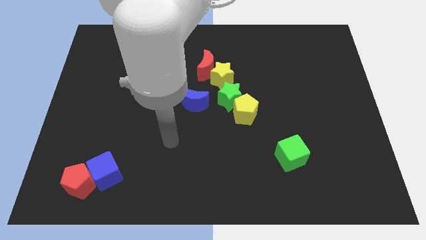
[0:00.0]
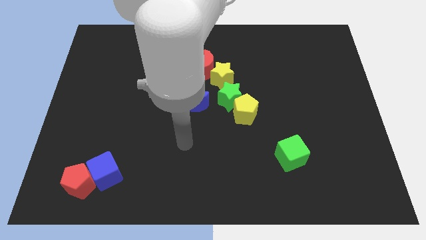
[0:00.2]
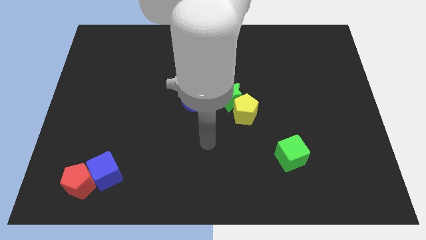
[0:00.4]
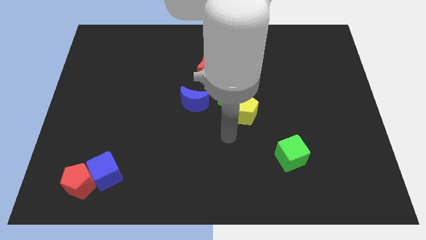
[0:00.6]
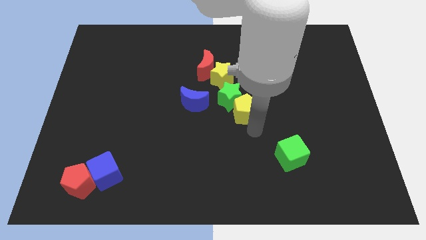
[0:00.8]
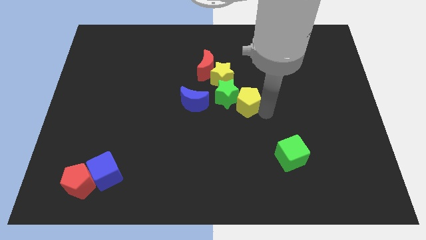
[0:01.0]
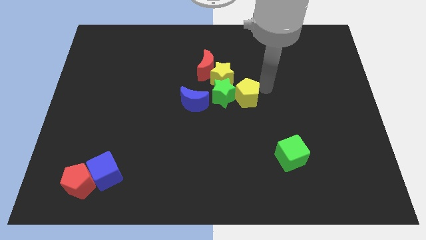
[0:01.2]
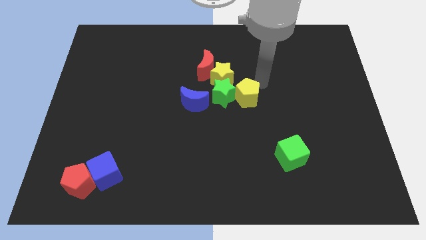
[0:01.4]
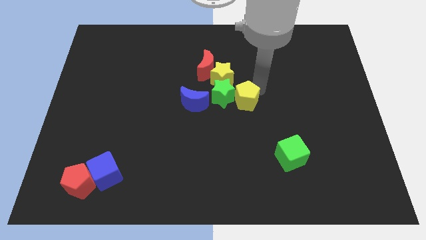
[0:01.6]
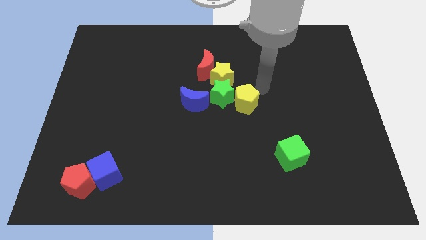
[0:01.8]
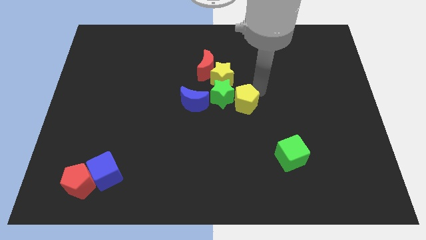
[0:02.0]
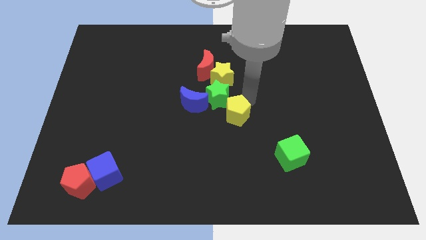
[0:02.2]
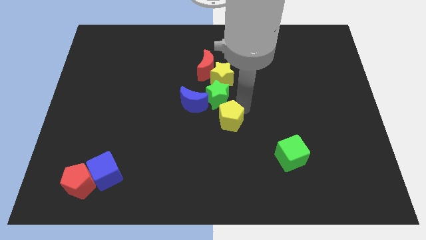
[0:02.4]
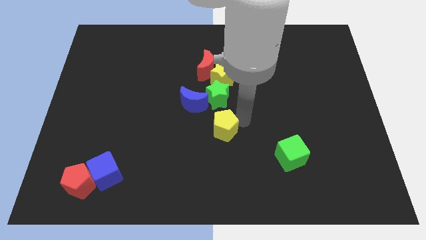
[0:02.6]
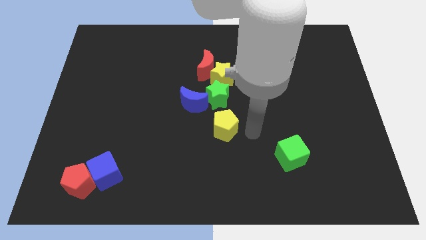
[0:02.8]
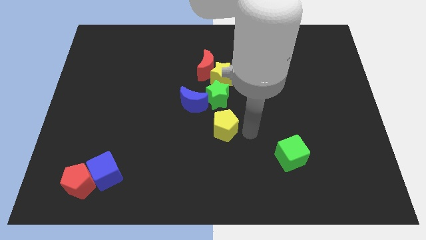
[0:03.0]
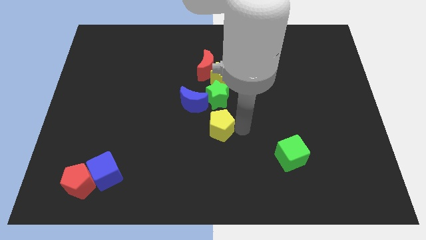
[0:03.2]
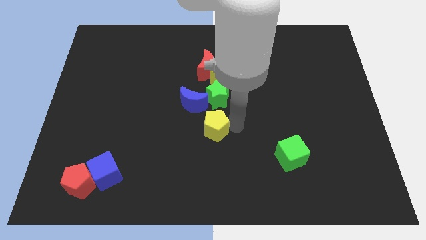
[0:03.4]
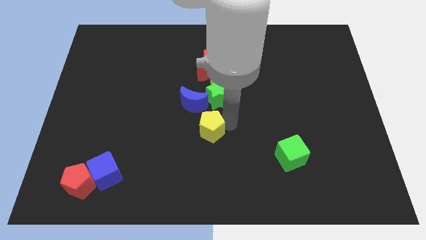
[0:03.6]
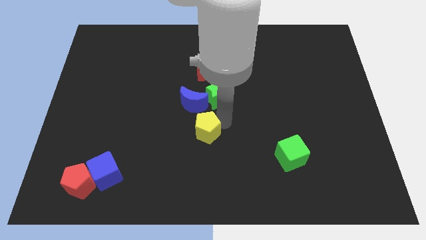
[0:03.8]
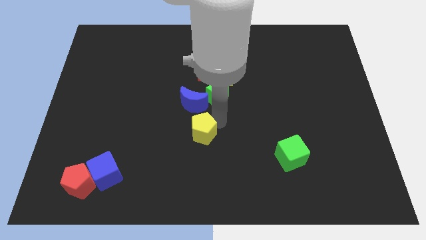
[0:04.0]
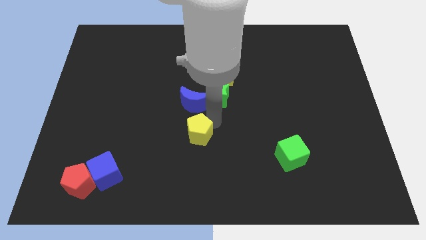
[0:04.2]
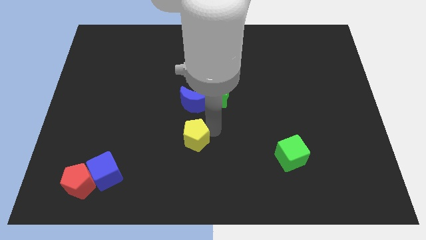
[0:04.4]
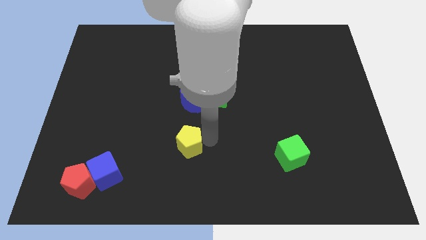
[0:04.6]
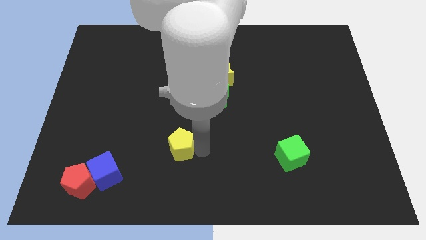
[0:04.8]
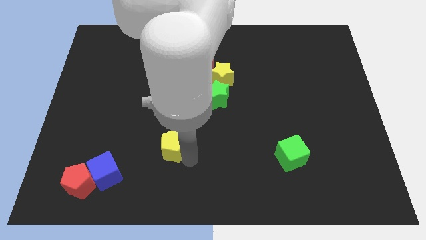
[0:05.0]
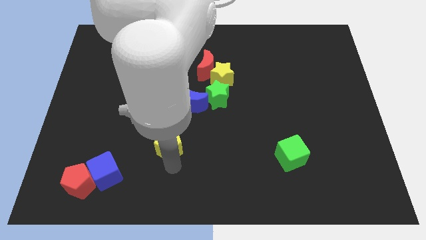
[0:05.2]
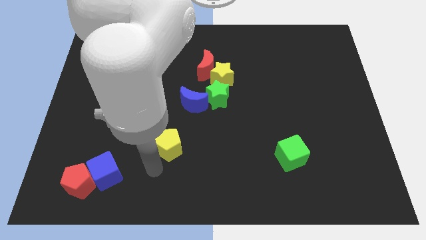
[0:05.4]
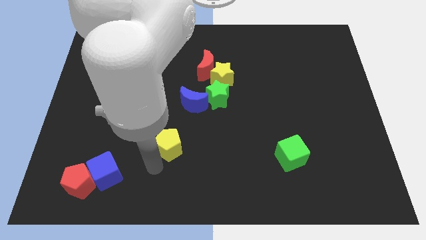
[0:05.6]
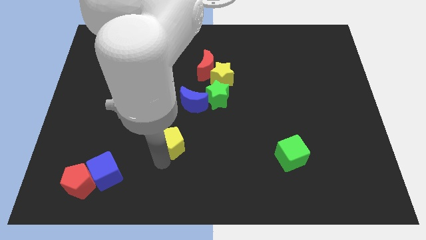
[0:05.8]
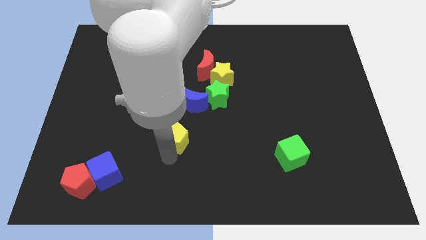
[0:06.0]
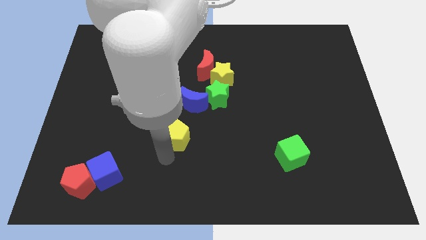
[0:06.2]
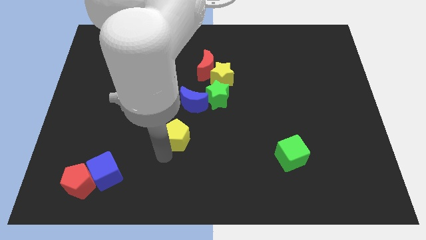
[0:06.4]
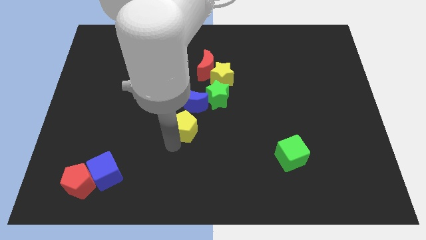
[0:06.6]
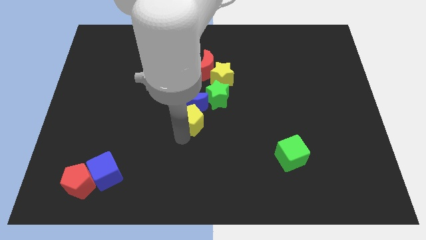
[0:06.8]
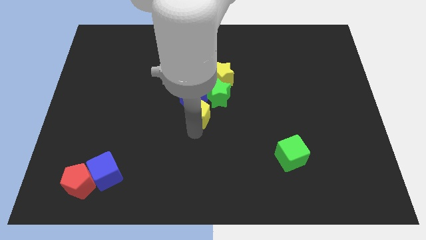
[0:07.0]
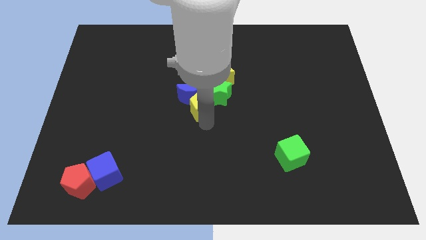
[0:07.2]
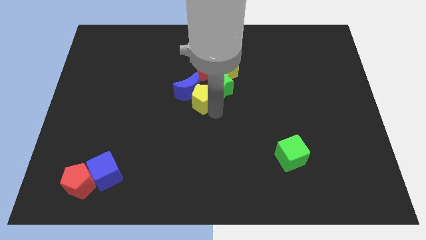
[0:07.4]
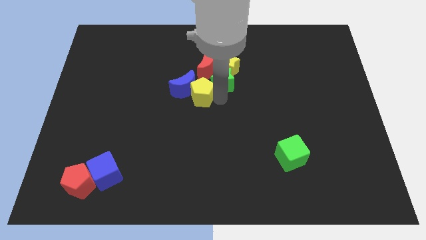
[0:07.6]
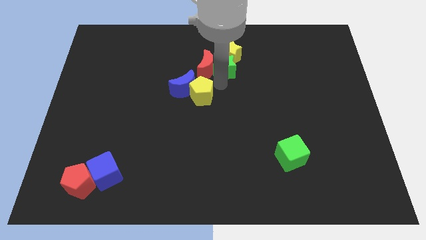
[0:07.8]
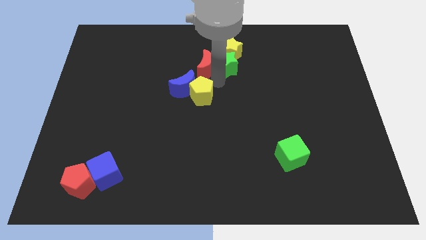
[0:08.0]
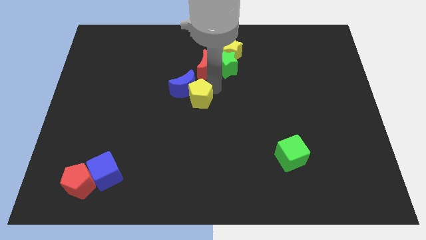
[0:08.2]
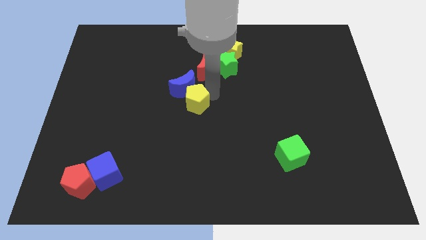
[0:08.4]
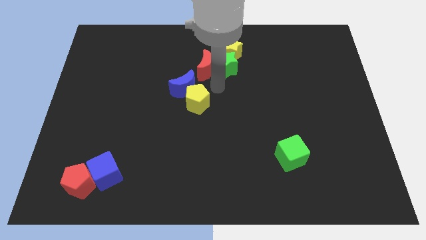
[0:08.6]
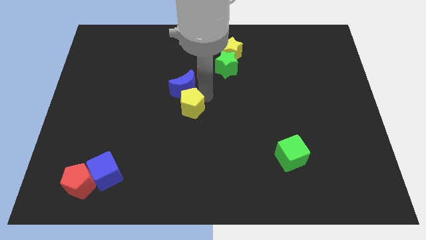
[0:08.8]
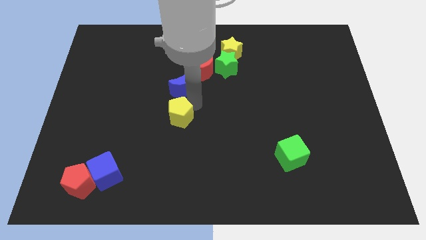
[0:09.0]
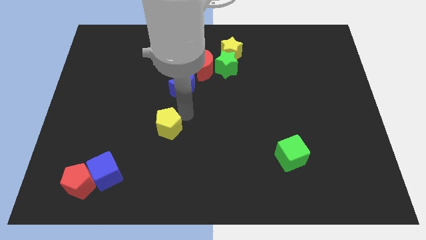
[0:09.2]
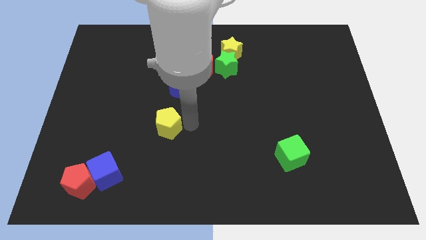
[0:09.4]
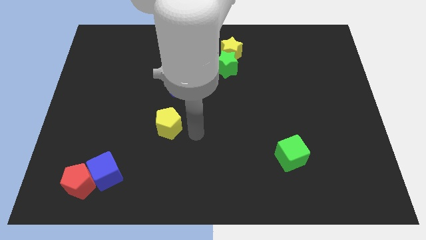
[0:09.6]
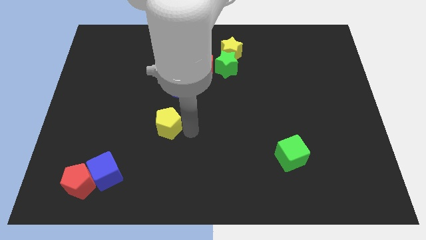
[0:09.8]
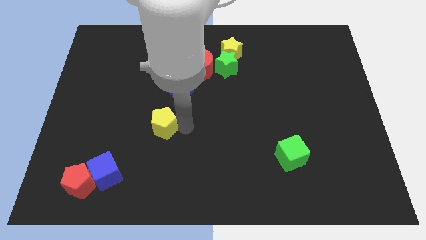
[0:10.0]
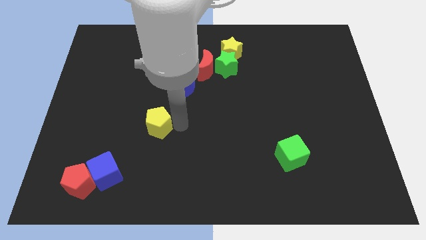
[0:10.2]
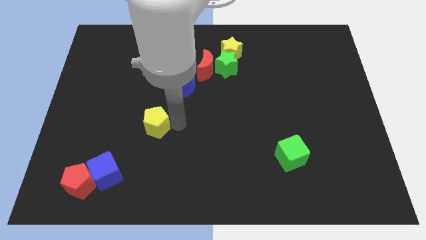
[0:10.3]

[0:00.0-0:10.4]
push the yellow pentagon to the left

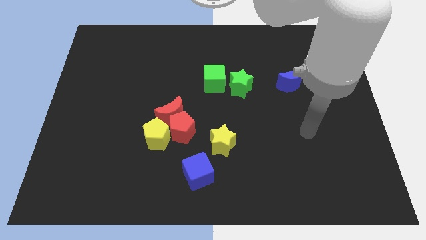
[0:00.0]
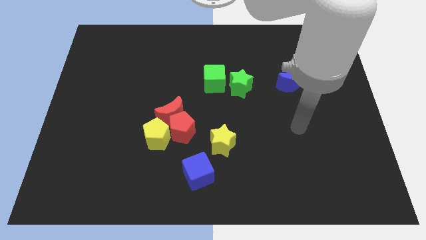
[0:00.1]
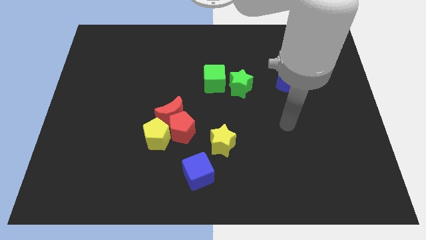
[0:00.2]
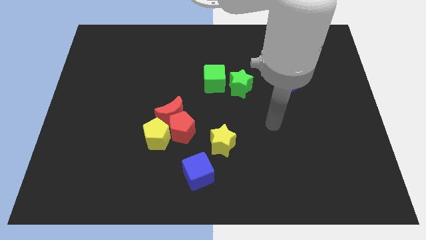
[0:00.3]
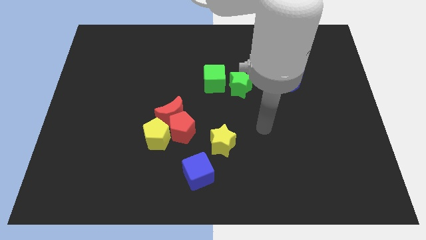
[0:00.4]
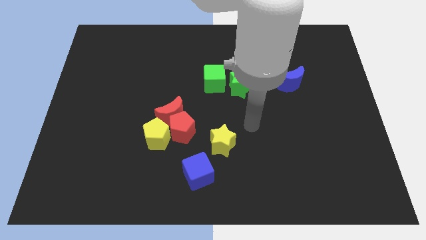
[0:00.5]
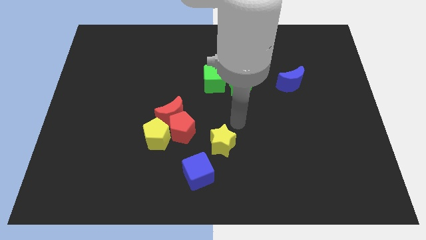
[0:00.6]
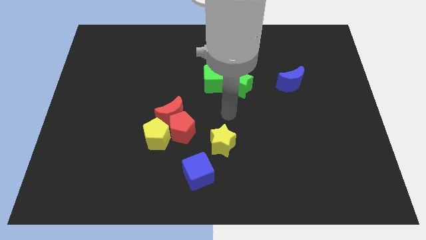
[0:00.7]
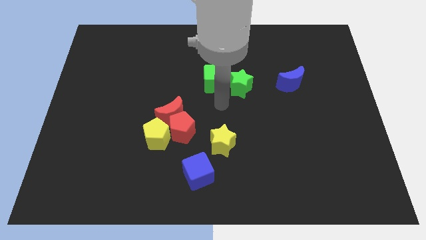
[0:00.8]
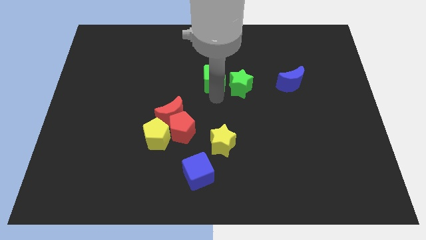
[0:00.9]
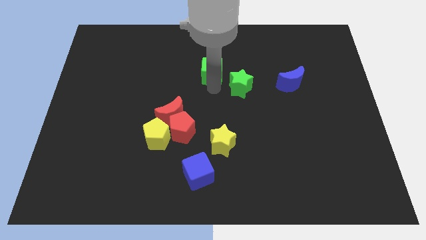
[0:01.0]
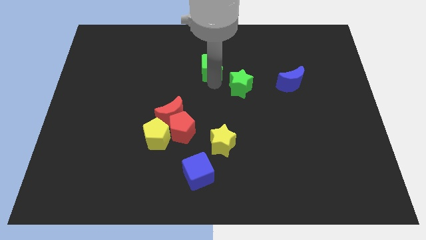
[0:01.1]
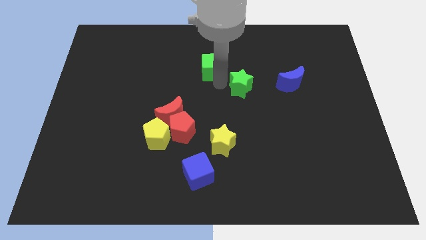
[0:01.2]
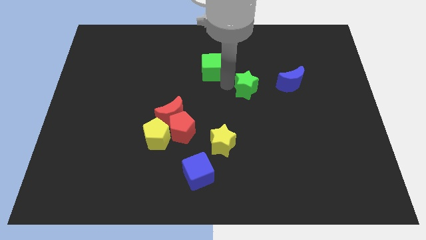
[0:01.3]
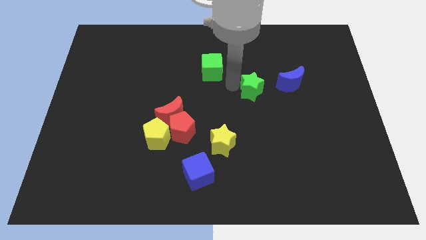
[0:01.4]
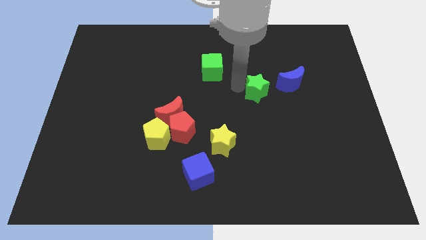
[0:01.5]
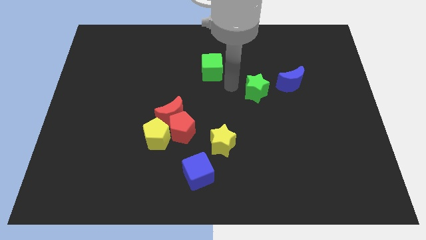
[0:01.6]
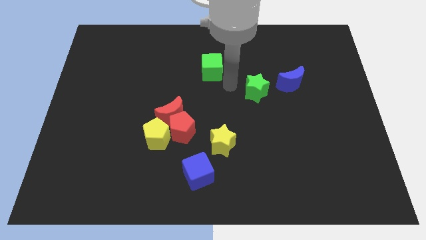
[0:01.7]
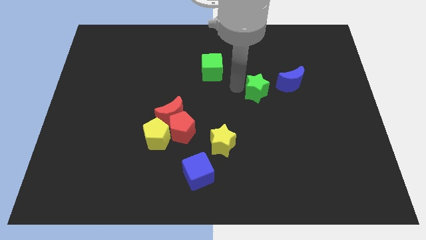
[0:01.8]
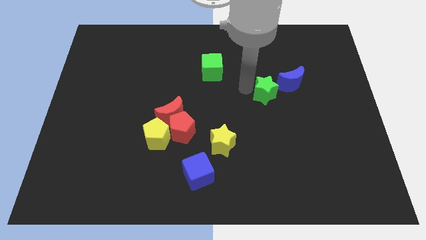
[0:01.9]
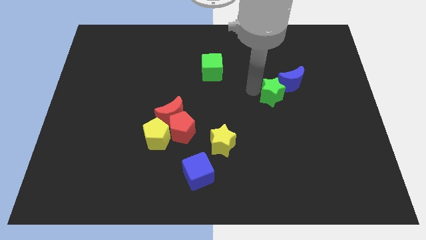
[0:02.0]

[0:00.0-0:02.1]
move the green star right slightly

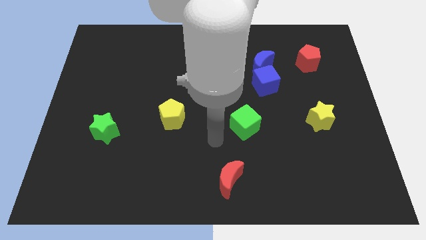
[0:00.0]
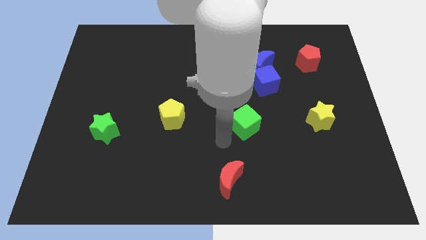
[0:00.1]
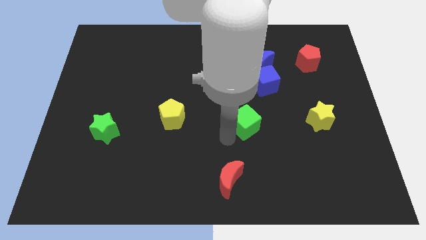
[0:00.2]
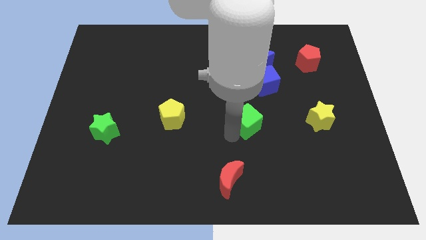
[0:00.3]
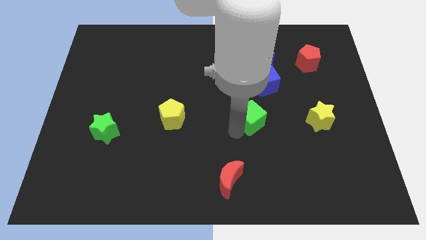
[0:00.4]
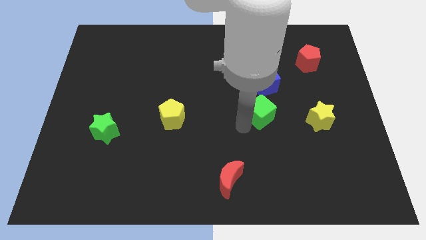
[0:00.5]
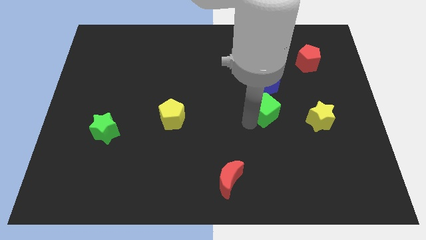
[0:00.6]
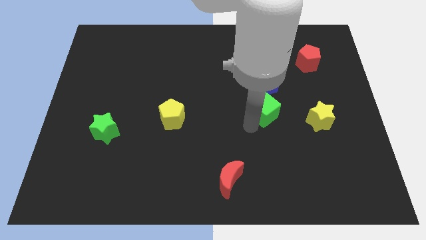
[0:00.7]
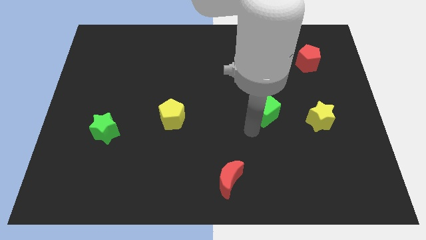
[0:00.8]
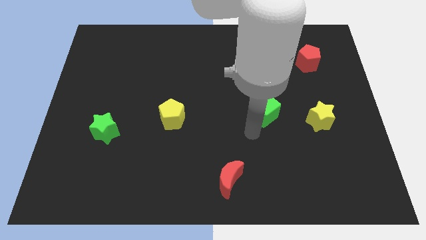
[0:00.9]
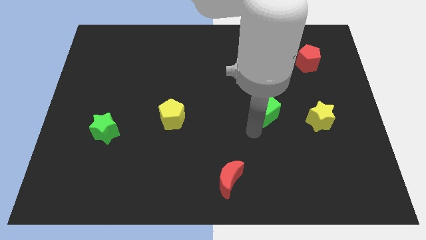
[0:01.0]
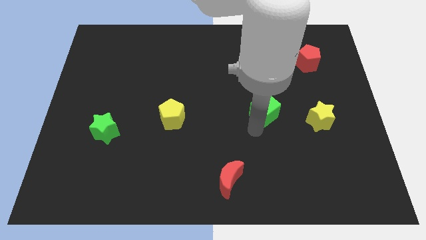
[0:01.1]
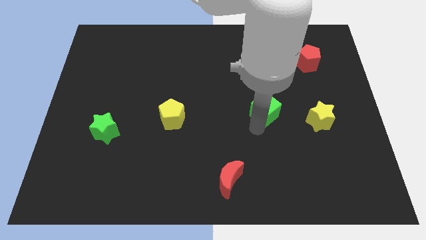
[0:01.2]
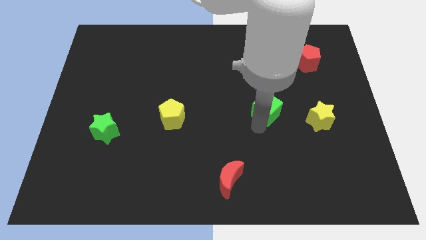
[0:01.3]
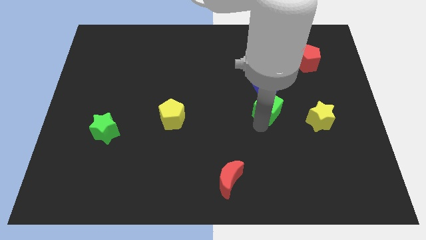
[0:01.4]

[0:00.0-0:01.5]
slide the green cube up and right diagonally a little bit
